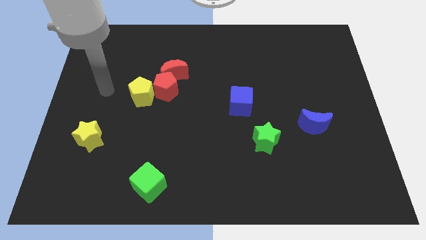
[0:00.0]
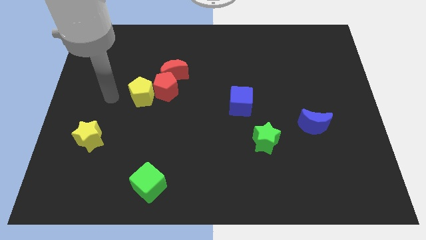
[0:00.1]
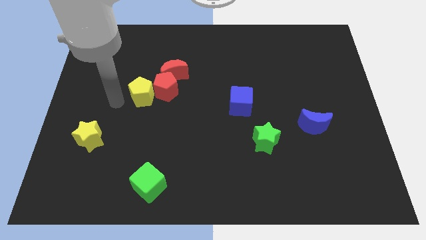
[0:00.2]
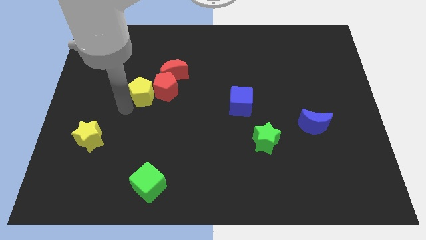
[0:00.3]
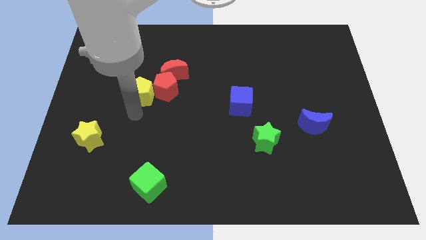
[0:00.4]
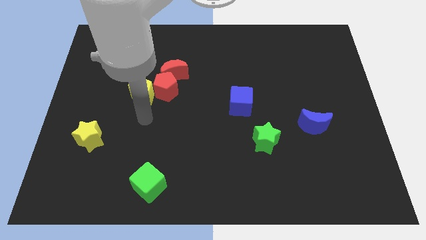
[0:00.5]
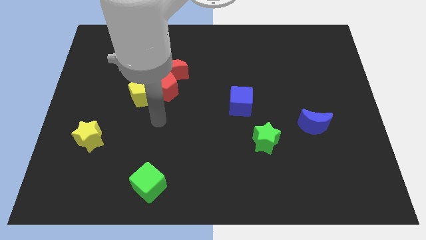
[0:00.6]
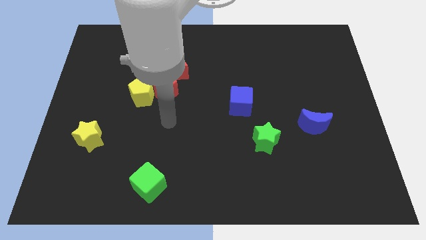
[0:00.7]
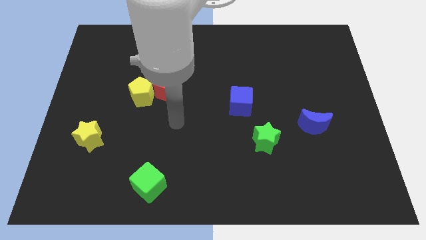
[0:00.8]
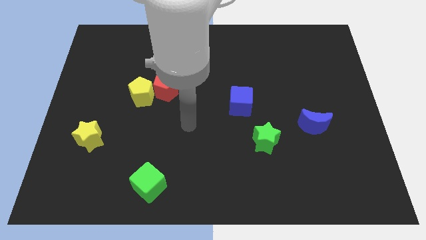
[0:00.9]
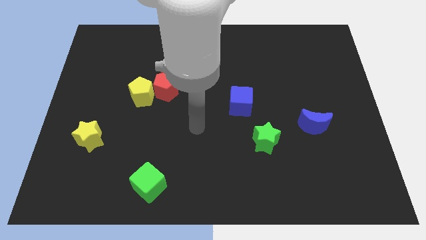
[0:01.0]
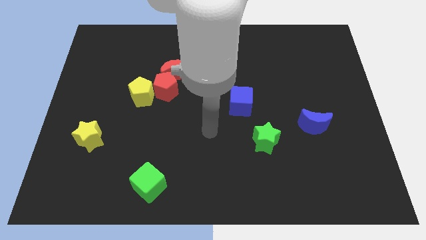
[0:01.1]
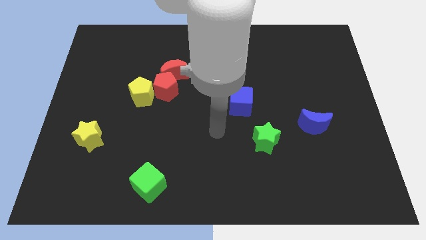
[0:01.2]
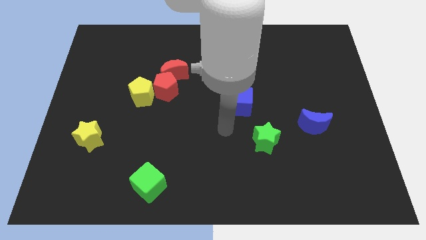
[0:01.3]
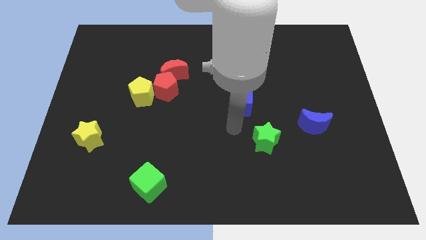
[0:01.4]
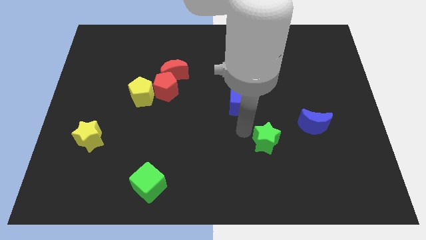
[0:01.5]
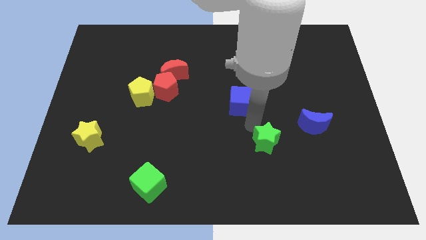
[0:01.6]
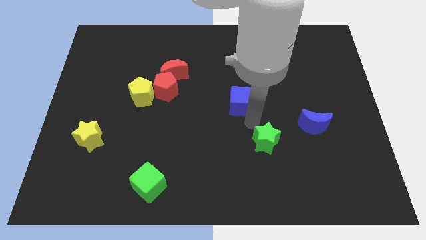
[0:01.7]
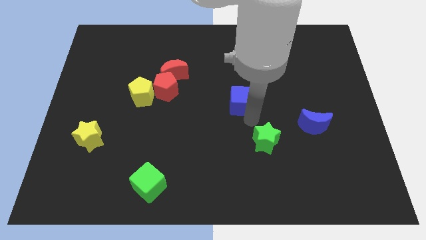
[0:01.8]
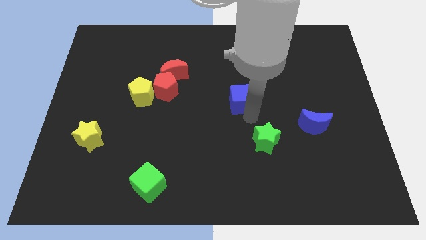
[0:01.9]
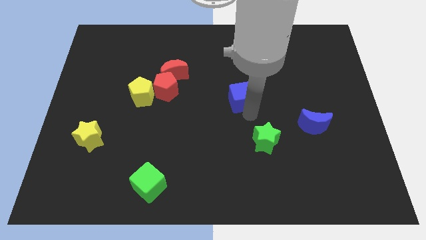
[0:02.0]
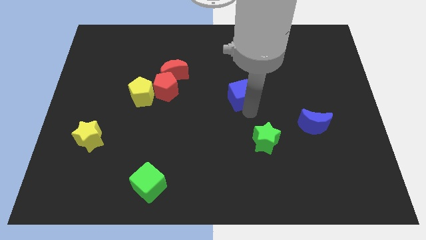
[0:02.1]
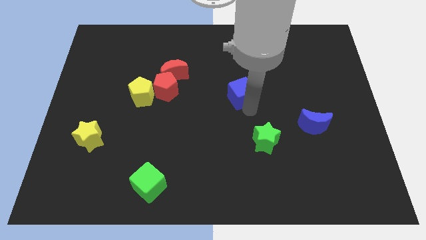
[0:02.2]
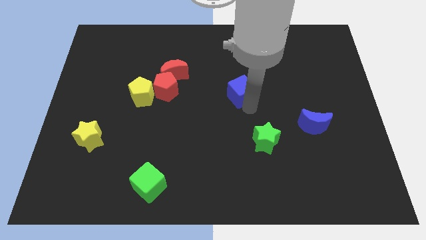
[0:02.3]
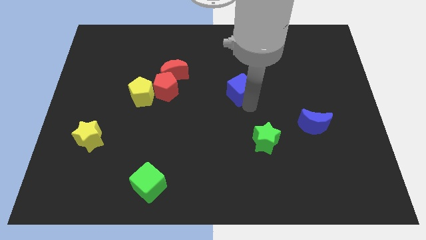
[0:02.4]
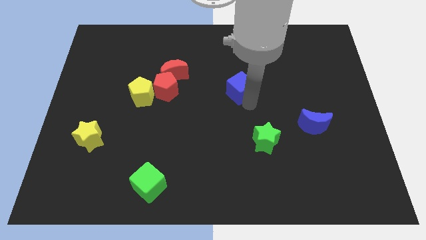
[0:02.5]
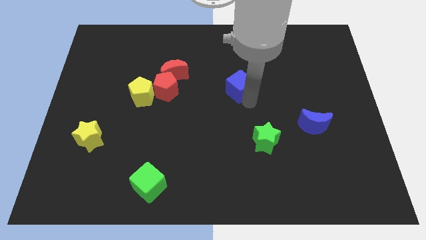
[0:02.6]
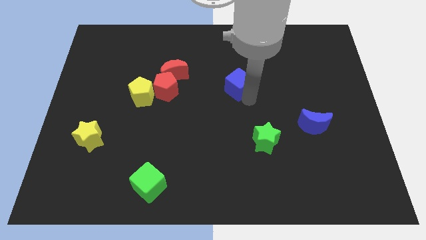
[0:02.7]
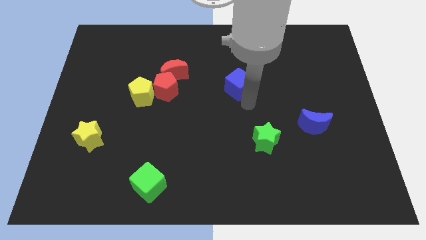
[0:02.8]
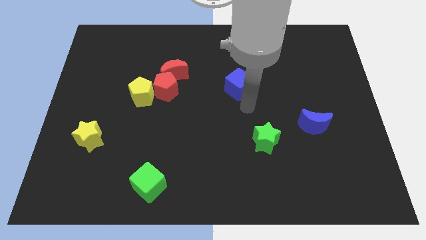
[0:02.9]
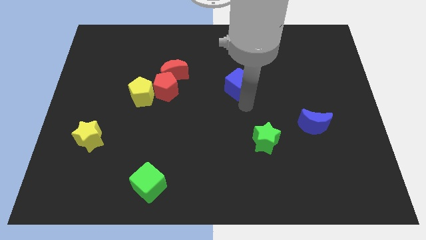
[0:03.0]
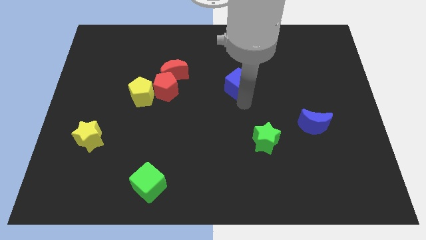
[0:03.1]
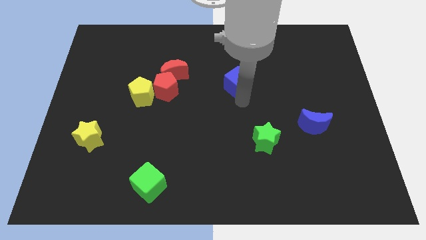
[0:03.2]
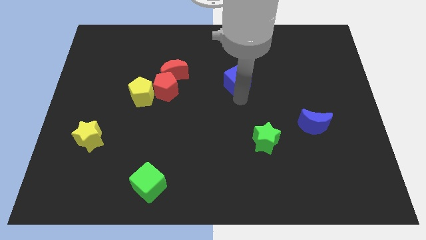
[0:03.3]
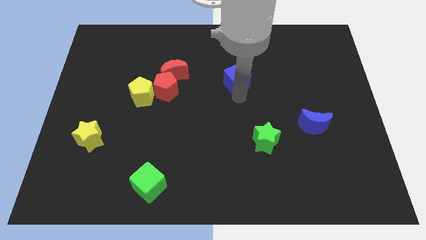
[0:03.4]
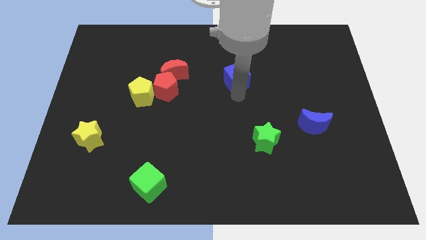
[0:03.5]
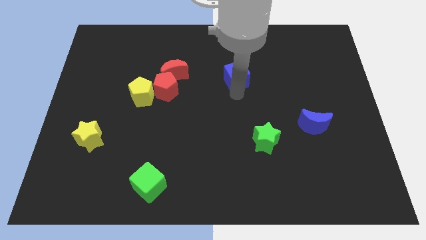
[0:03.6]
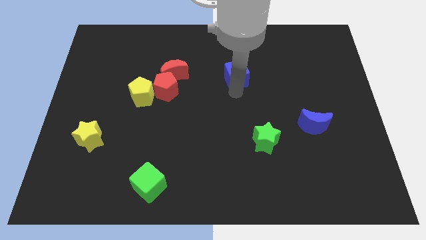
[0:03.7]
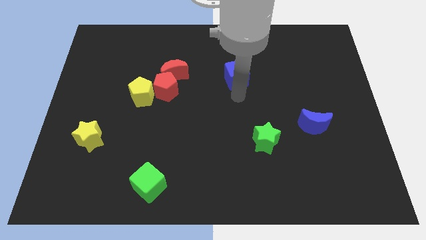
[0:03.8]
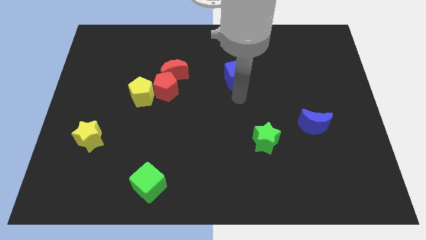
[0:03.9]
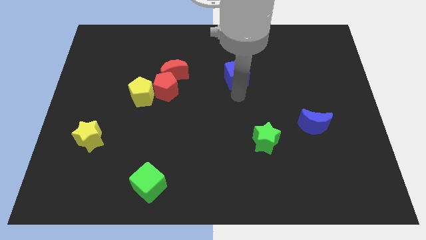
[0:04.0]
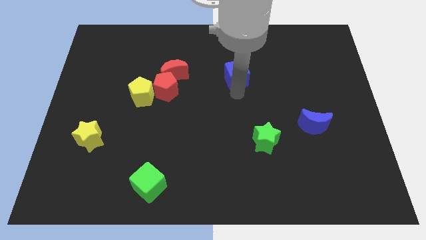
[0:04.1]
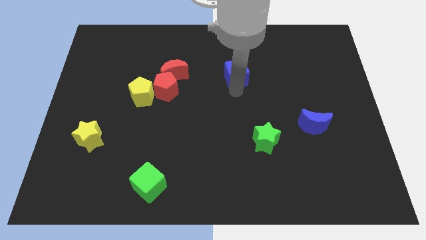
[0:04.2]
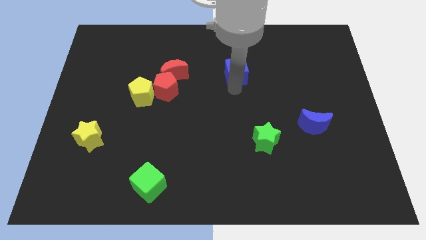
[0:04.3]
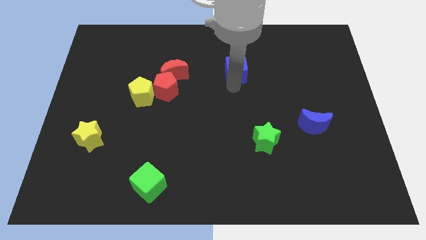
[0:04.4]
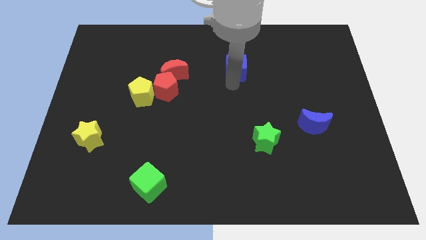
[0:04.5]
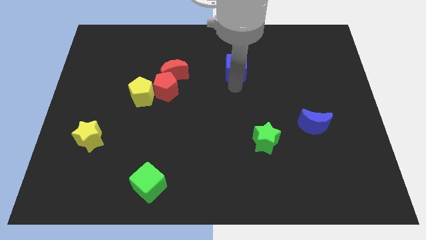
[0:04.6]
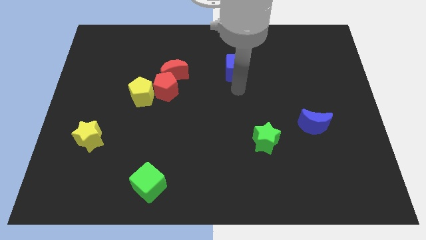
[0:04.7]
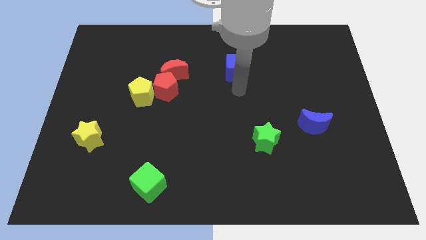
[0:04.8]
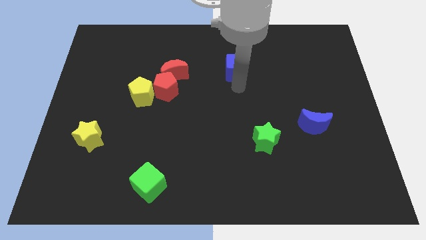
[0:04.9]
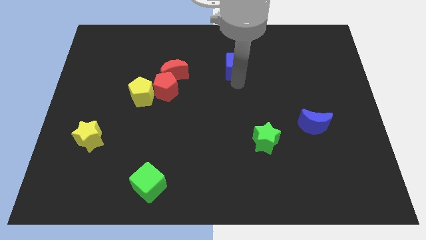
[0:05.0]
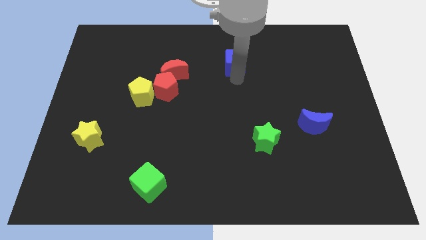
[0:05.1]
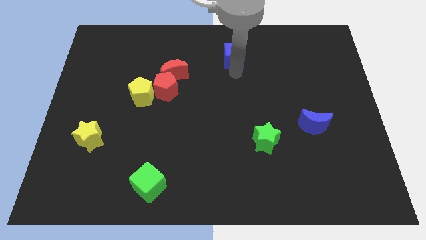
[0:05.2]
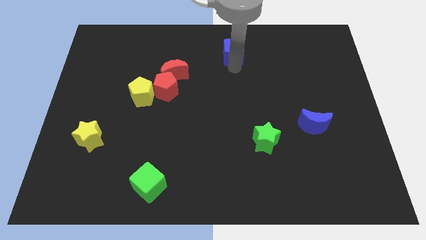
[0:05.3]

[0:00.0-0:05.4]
slide the blue cube to the towards your base
